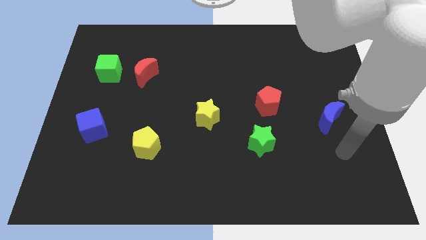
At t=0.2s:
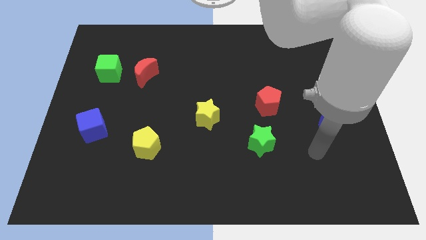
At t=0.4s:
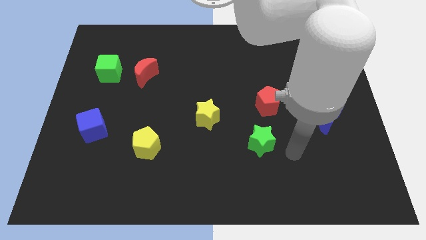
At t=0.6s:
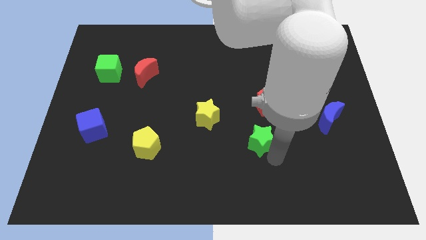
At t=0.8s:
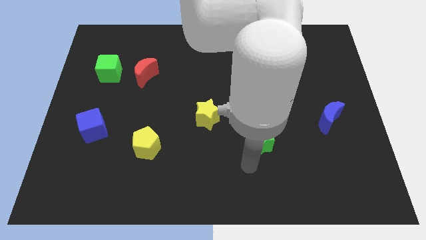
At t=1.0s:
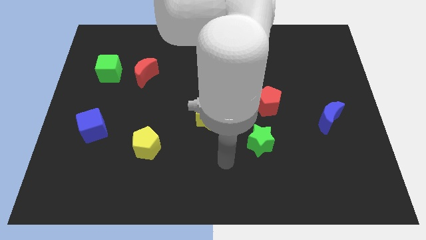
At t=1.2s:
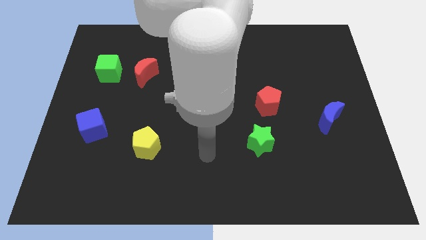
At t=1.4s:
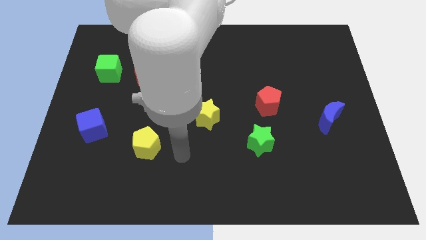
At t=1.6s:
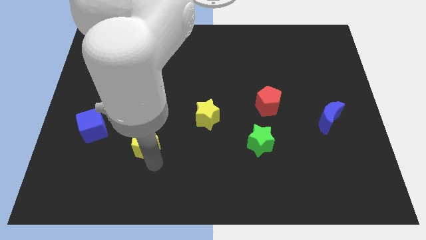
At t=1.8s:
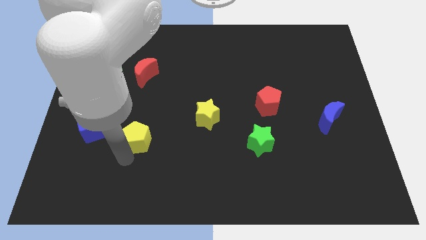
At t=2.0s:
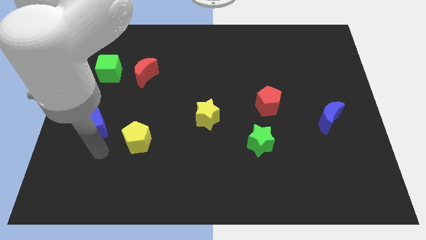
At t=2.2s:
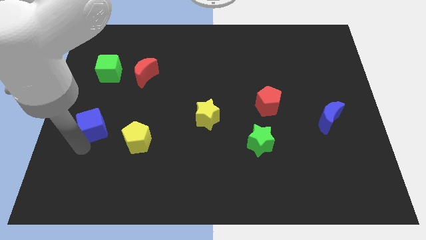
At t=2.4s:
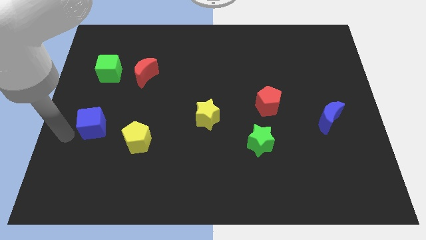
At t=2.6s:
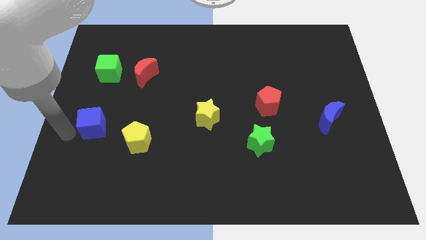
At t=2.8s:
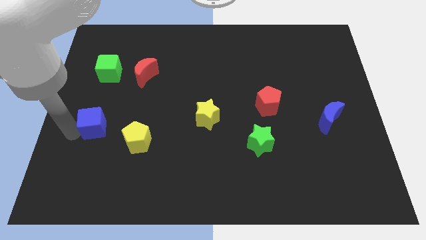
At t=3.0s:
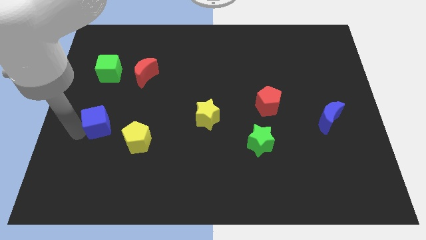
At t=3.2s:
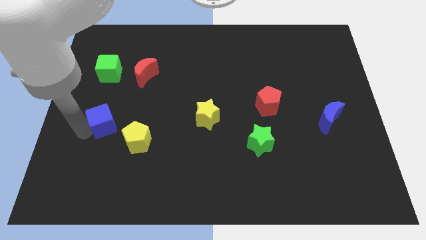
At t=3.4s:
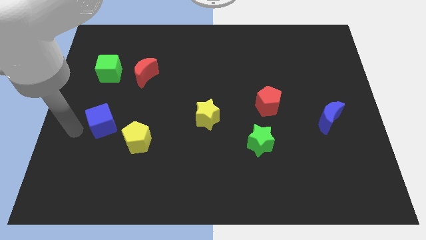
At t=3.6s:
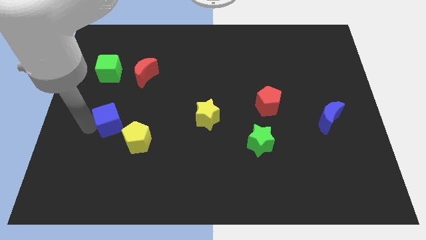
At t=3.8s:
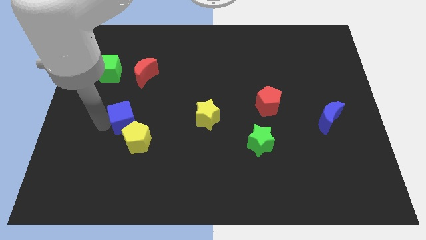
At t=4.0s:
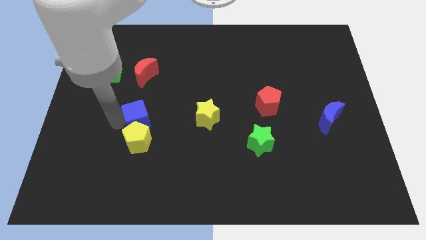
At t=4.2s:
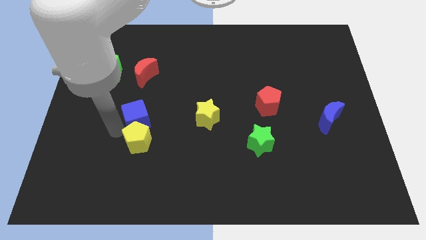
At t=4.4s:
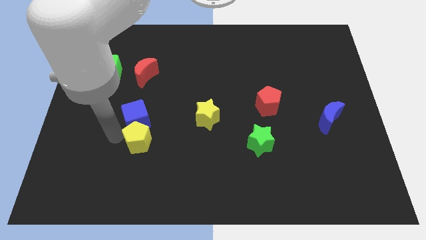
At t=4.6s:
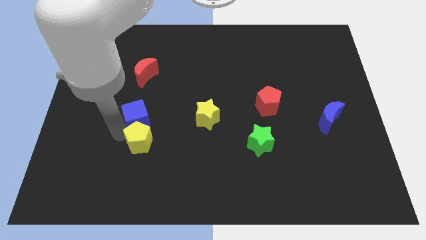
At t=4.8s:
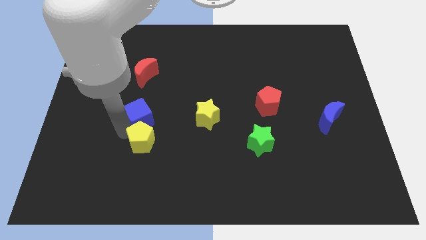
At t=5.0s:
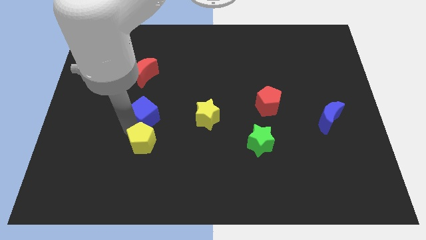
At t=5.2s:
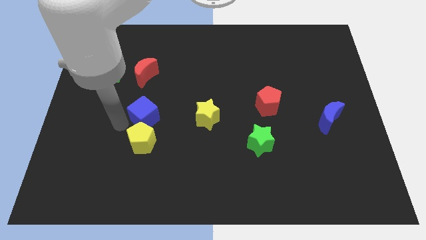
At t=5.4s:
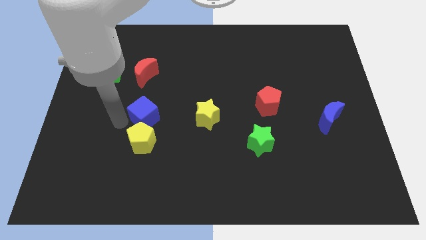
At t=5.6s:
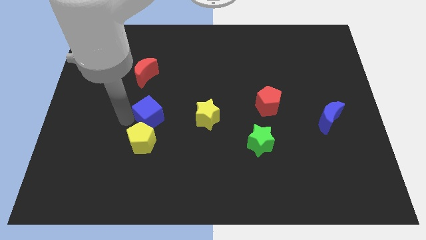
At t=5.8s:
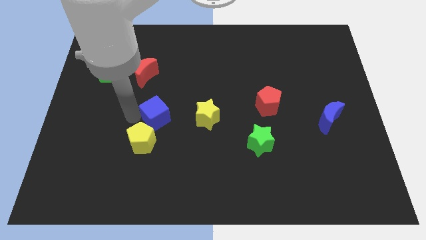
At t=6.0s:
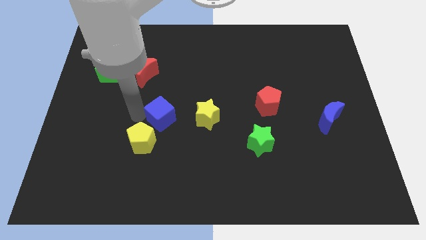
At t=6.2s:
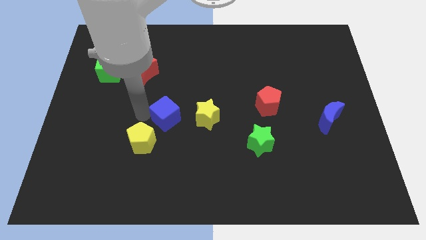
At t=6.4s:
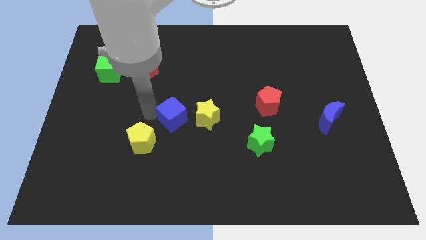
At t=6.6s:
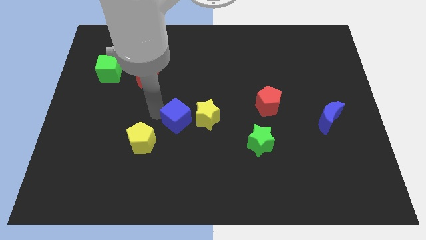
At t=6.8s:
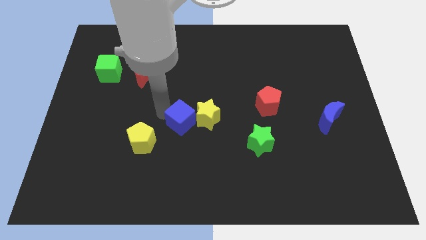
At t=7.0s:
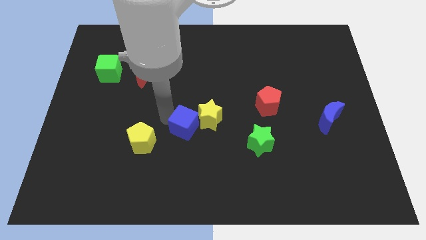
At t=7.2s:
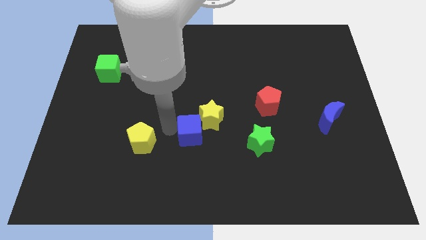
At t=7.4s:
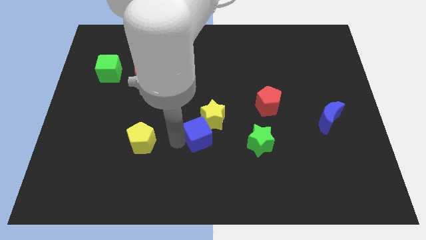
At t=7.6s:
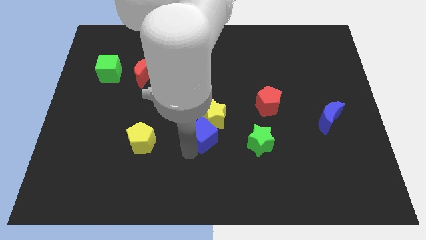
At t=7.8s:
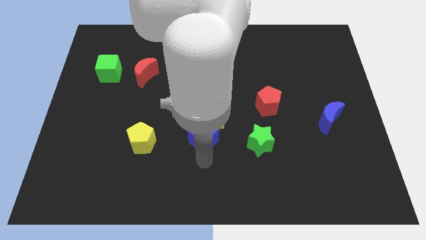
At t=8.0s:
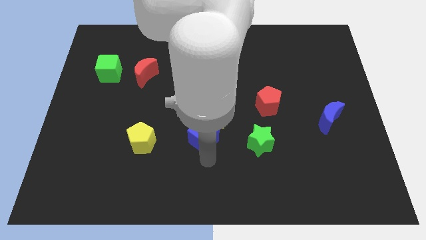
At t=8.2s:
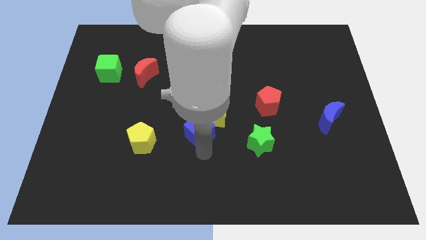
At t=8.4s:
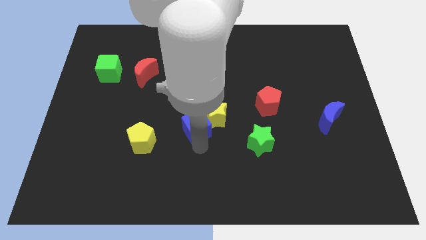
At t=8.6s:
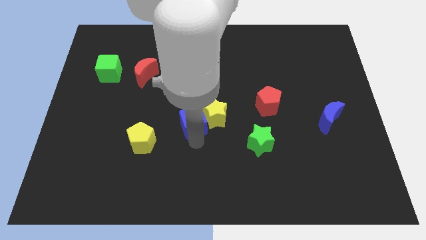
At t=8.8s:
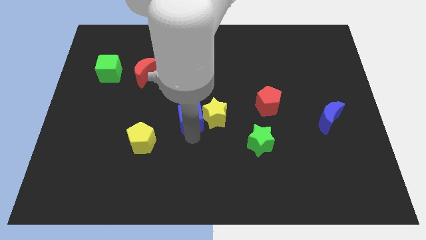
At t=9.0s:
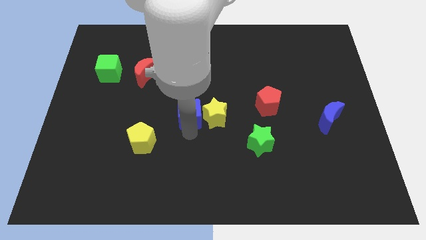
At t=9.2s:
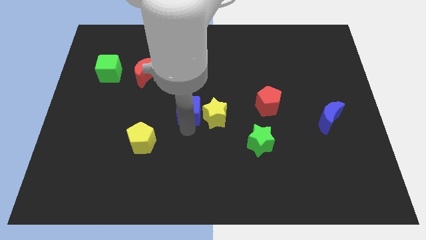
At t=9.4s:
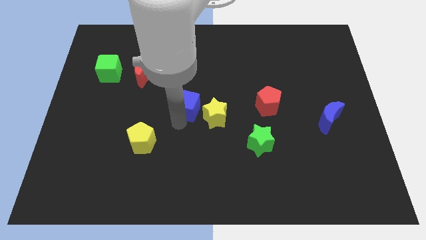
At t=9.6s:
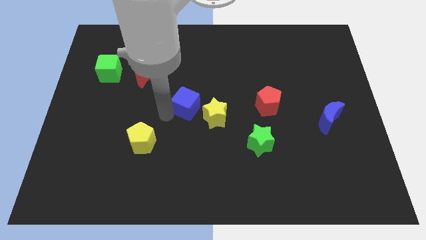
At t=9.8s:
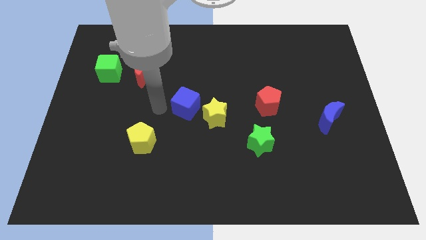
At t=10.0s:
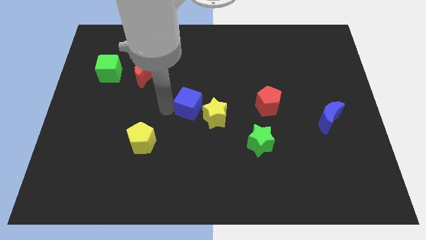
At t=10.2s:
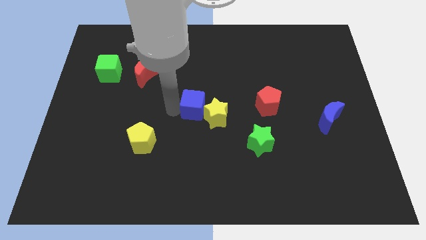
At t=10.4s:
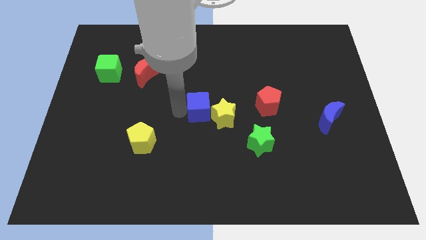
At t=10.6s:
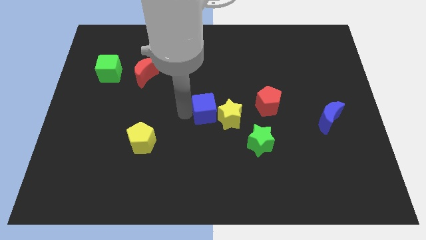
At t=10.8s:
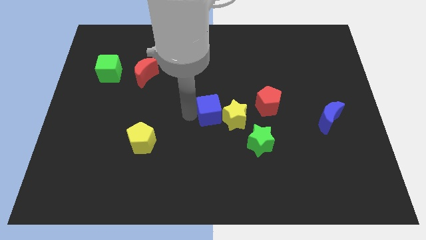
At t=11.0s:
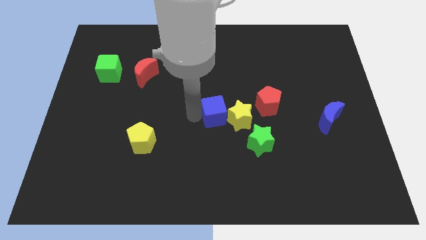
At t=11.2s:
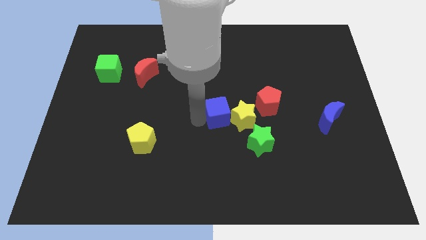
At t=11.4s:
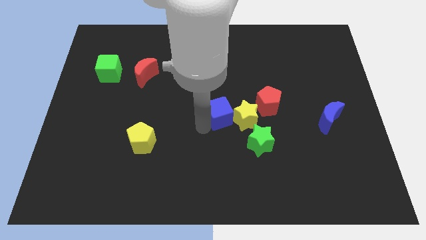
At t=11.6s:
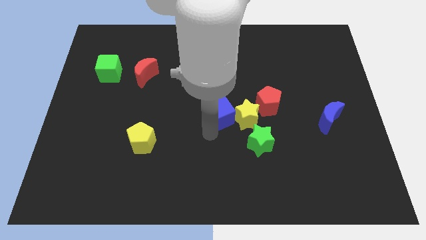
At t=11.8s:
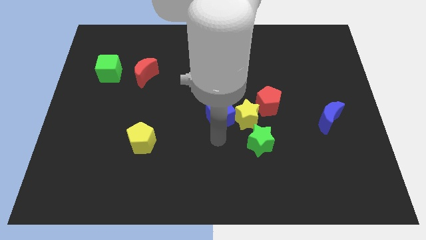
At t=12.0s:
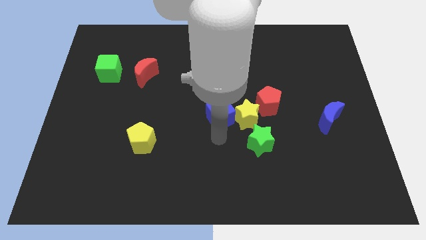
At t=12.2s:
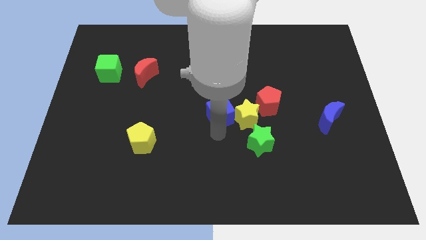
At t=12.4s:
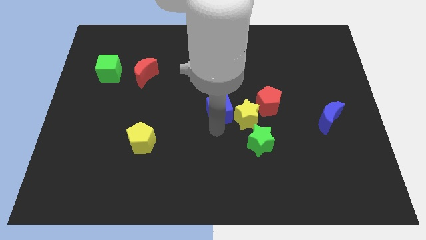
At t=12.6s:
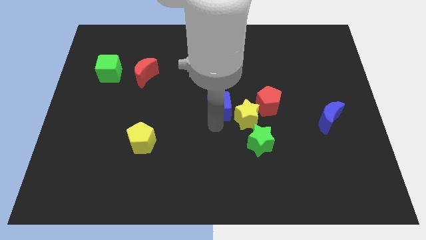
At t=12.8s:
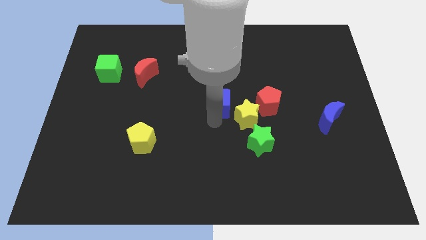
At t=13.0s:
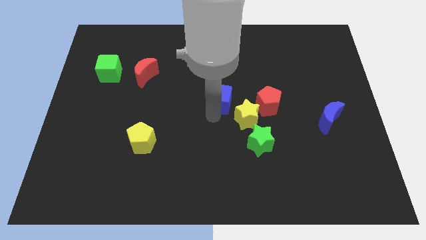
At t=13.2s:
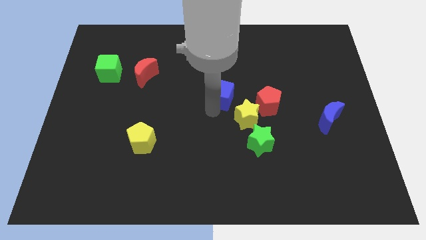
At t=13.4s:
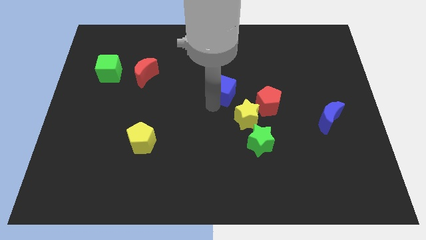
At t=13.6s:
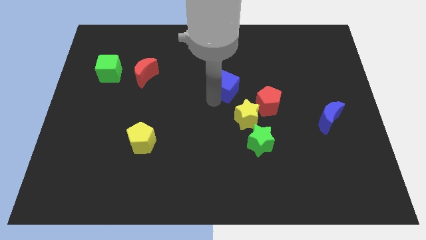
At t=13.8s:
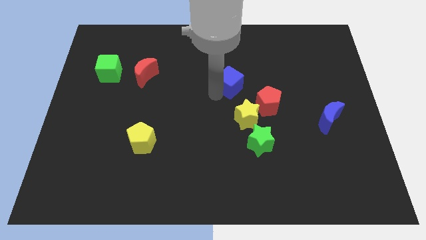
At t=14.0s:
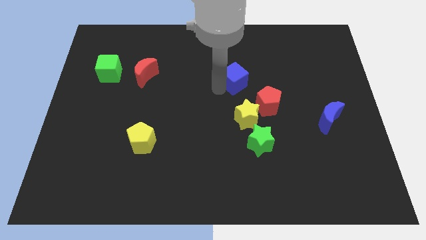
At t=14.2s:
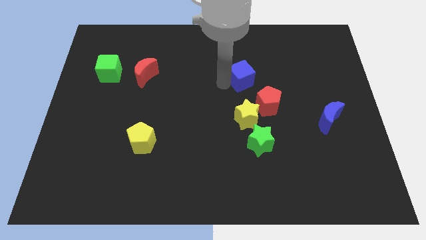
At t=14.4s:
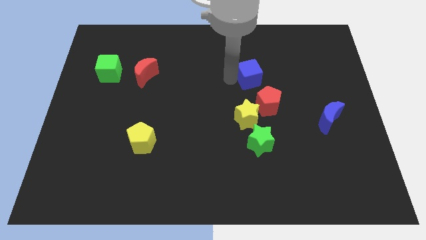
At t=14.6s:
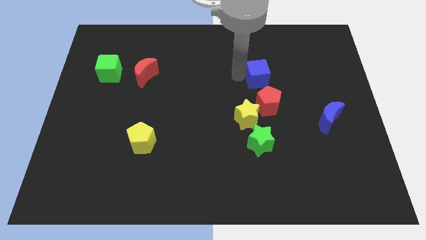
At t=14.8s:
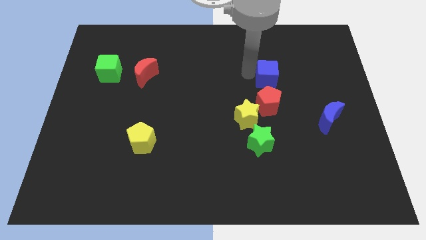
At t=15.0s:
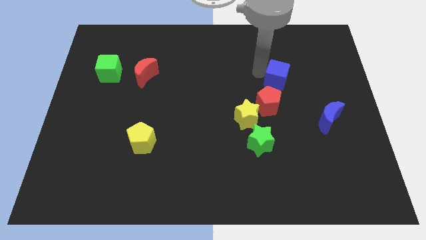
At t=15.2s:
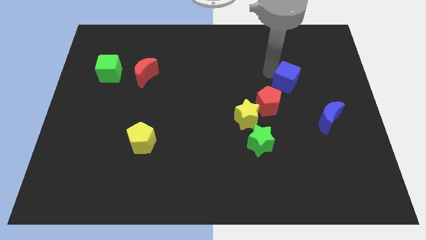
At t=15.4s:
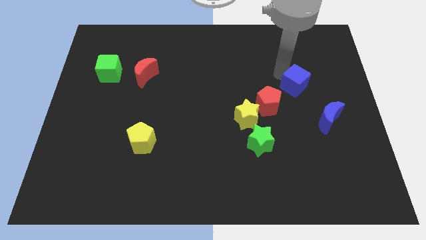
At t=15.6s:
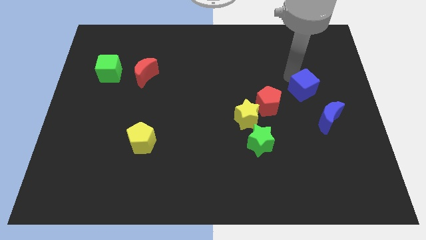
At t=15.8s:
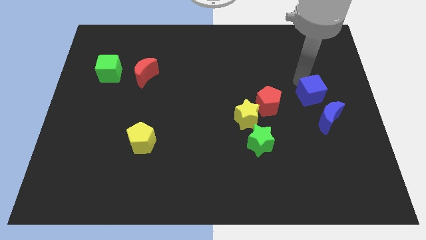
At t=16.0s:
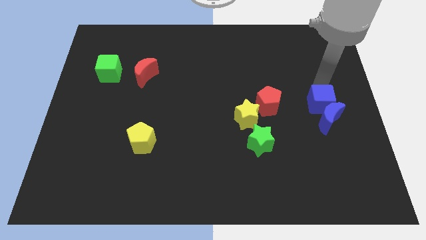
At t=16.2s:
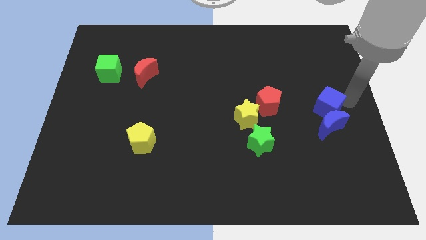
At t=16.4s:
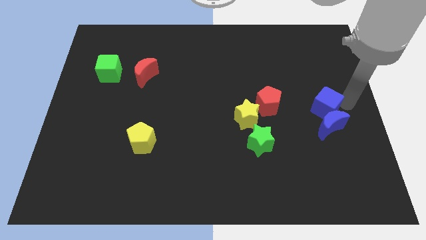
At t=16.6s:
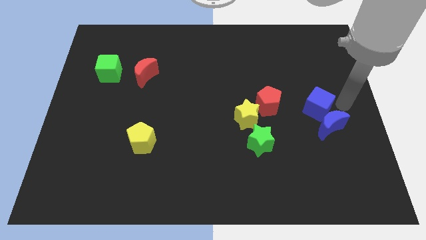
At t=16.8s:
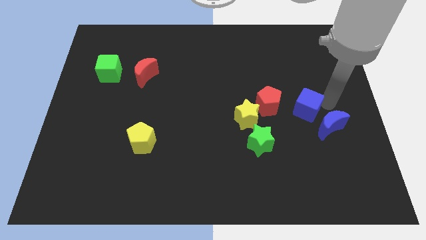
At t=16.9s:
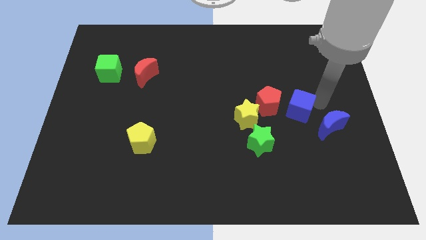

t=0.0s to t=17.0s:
put the blue cube just left of the blue moon
